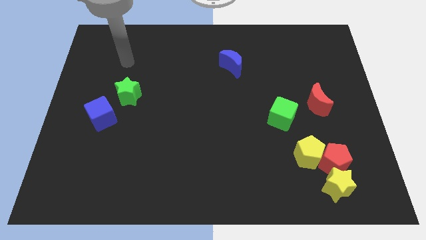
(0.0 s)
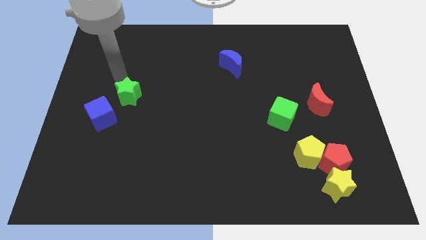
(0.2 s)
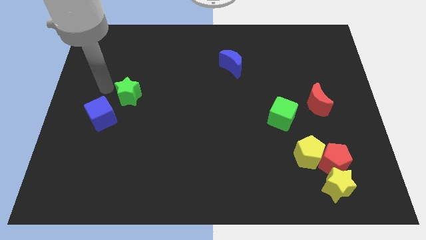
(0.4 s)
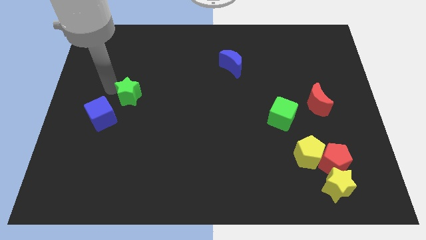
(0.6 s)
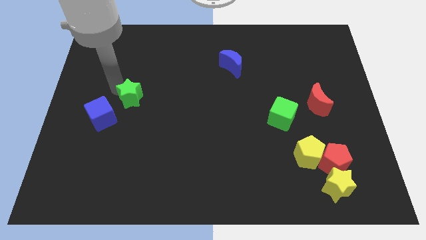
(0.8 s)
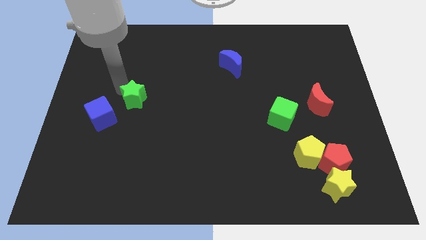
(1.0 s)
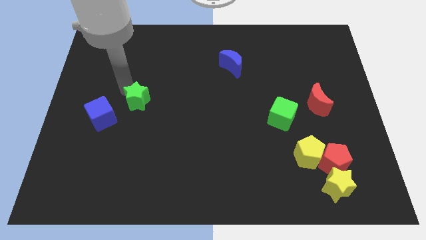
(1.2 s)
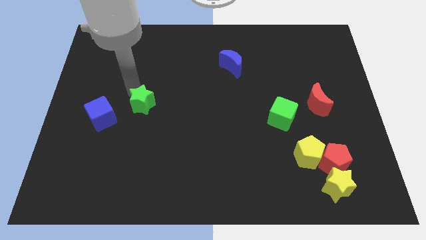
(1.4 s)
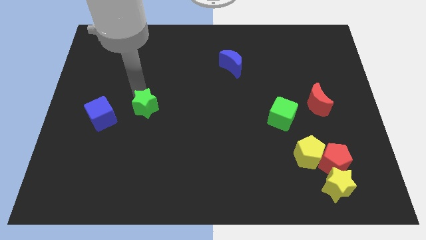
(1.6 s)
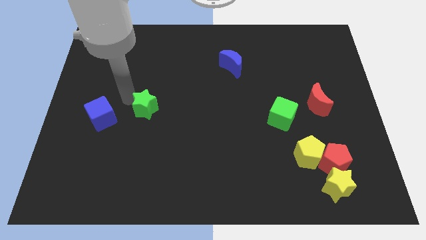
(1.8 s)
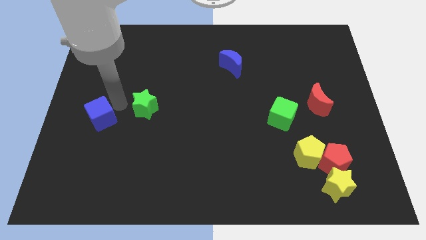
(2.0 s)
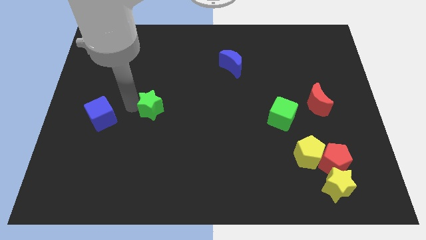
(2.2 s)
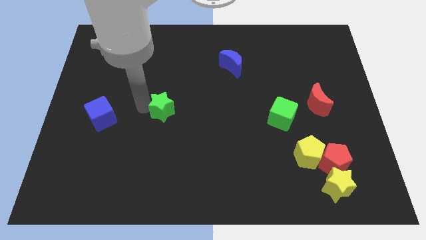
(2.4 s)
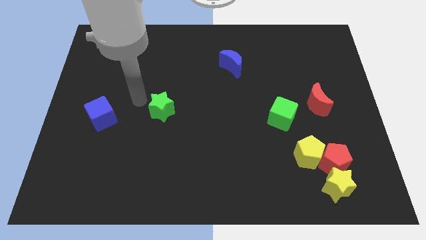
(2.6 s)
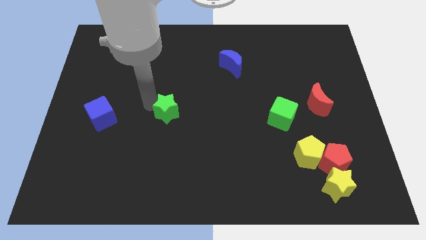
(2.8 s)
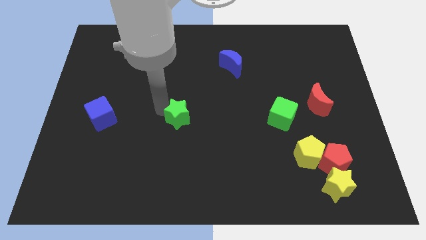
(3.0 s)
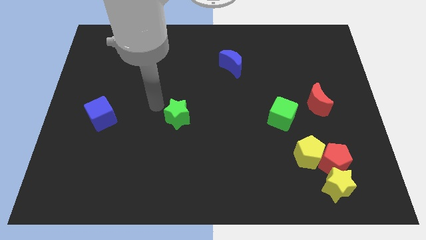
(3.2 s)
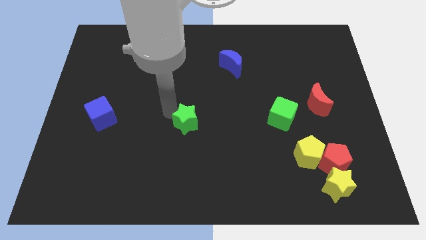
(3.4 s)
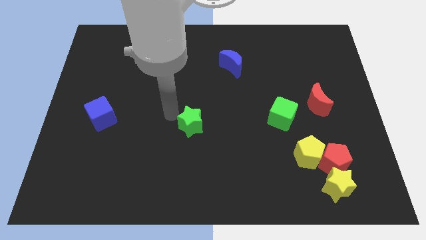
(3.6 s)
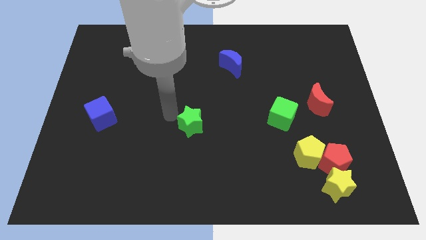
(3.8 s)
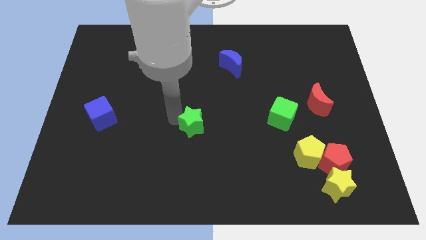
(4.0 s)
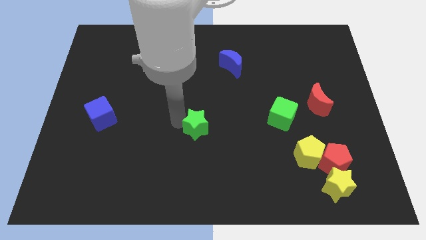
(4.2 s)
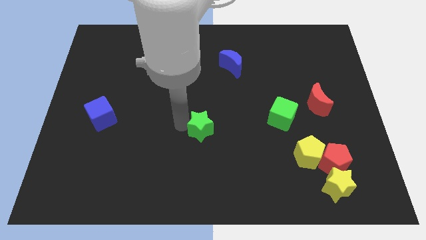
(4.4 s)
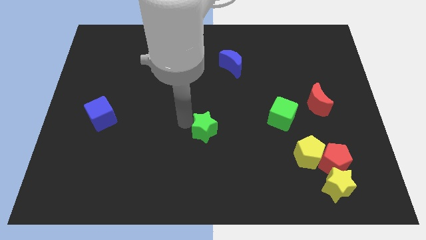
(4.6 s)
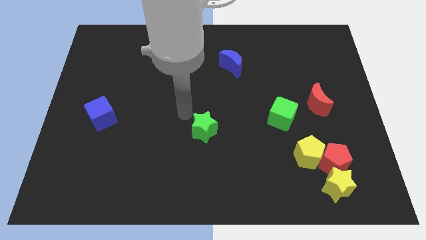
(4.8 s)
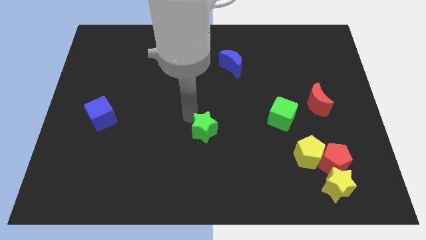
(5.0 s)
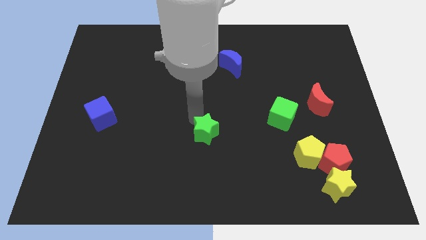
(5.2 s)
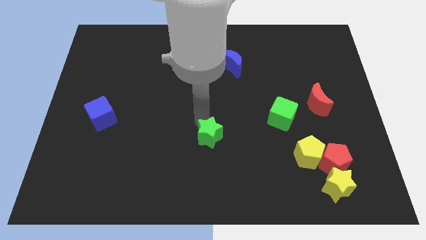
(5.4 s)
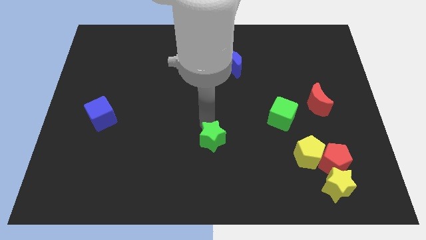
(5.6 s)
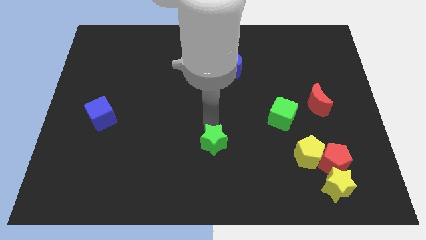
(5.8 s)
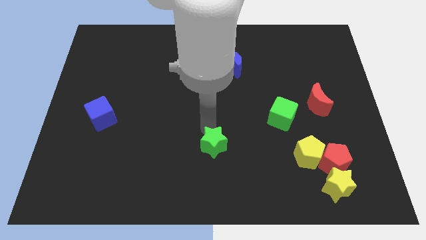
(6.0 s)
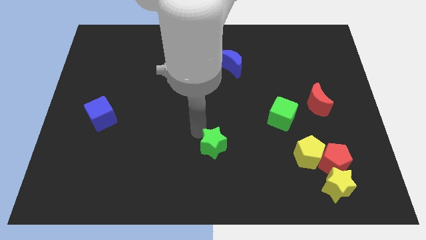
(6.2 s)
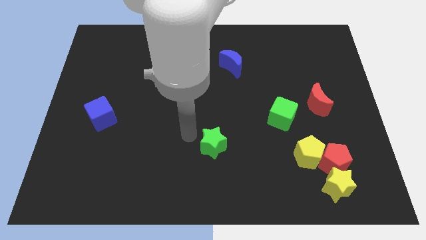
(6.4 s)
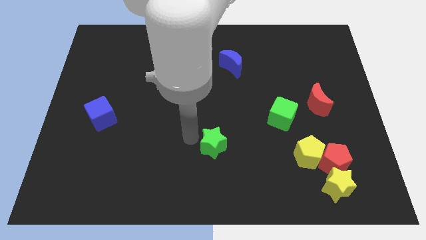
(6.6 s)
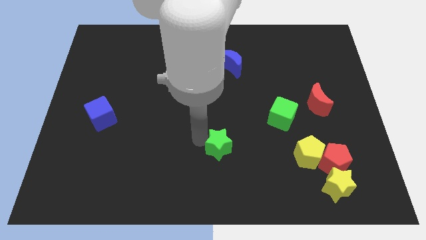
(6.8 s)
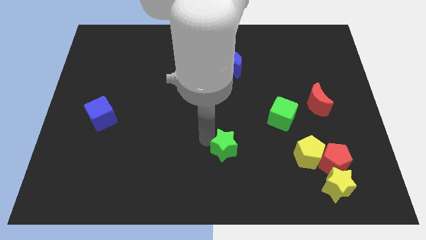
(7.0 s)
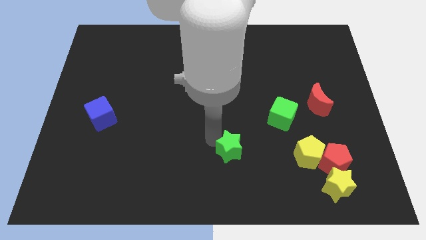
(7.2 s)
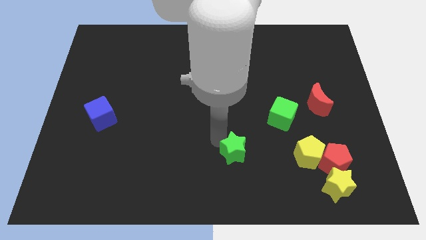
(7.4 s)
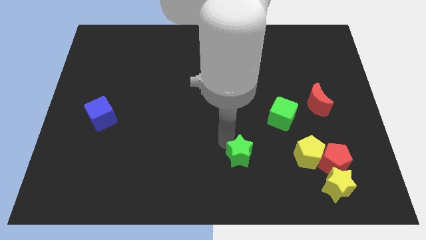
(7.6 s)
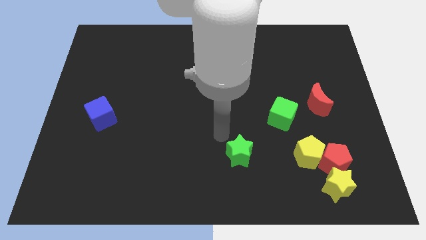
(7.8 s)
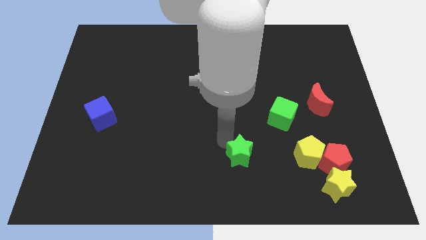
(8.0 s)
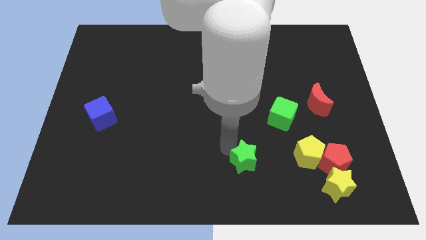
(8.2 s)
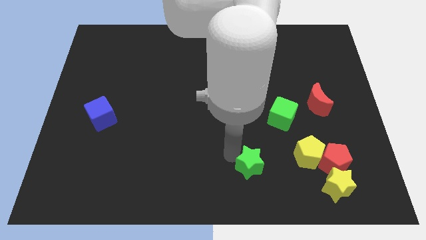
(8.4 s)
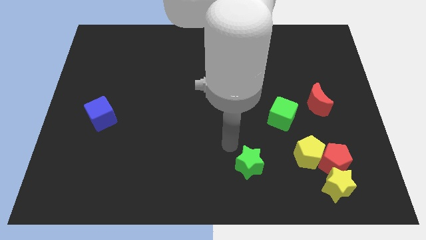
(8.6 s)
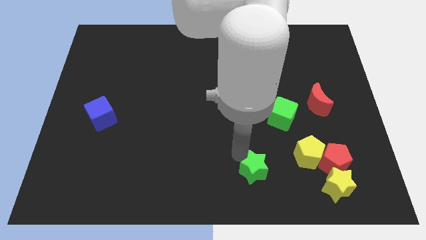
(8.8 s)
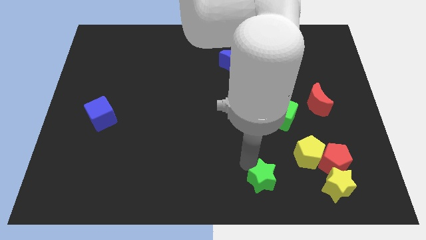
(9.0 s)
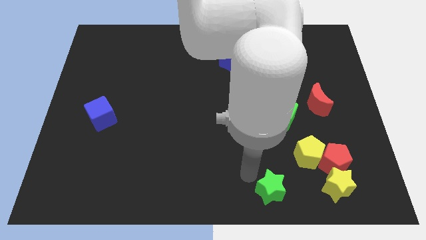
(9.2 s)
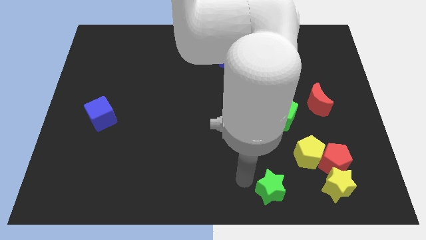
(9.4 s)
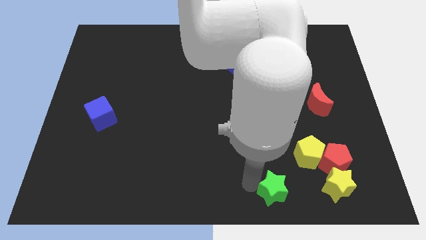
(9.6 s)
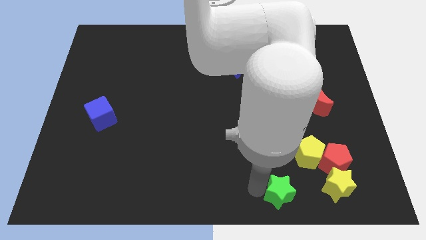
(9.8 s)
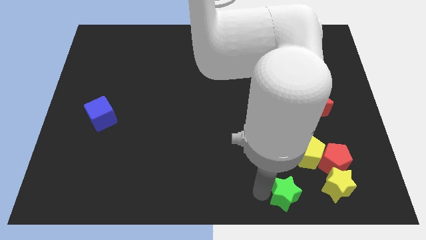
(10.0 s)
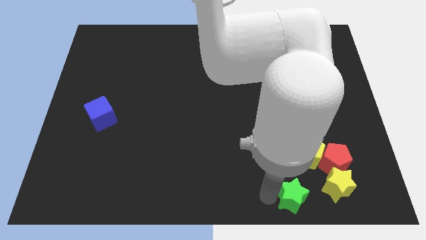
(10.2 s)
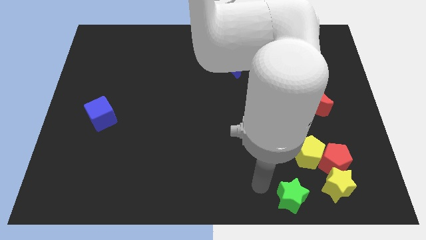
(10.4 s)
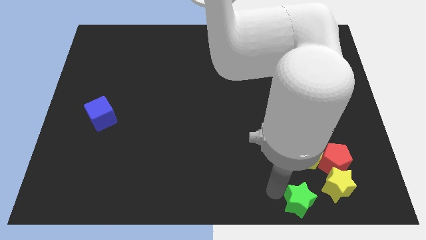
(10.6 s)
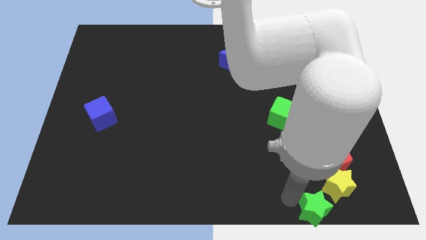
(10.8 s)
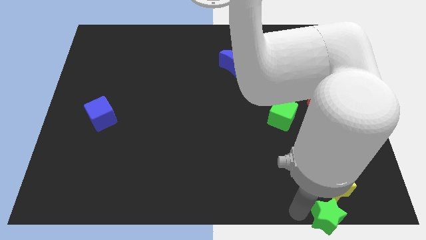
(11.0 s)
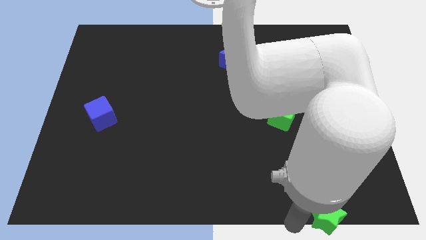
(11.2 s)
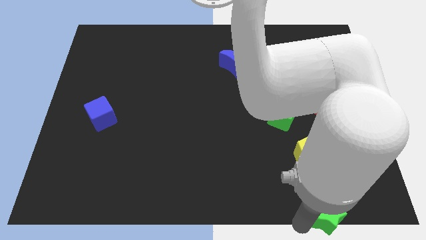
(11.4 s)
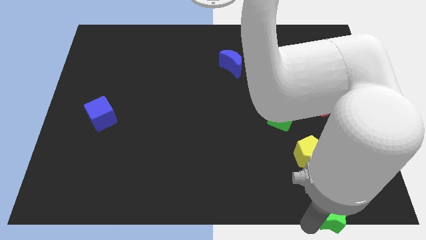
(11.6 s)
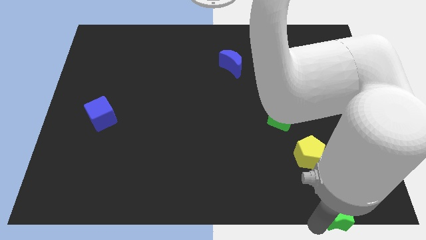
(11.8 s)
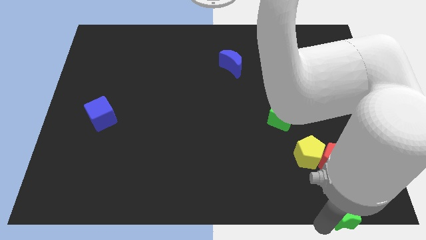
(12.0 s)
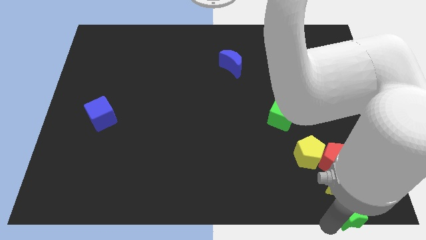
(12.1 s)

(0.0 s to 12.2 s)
put the green star to the bottom right
